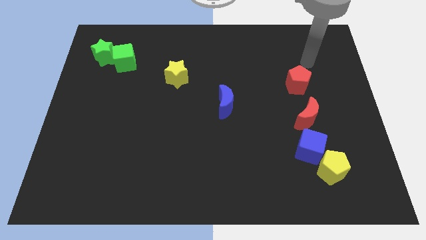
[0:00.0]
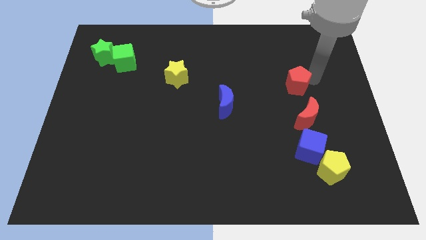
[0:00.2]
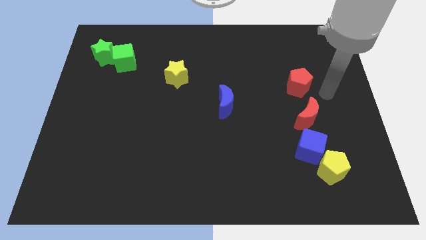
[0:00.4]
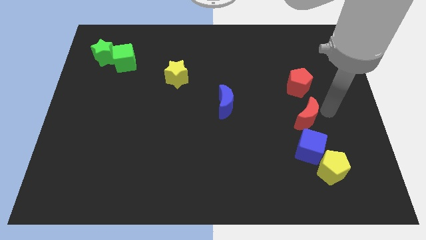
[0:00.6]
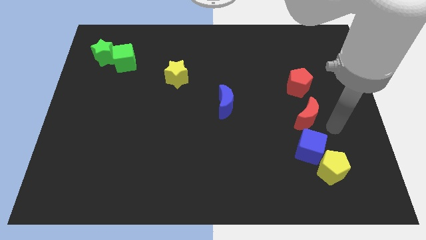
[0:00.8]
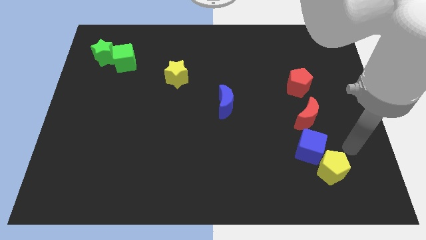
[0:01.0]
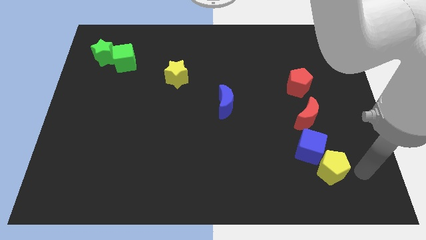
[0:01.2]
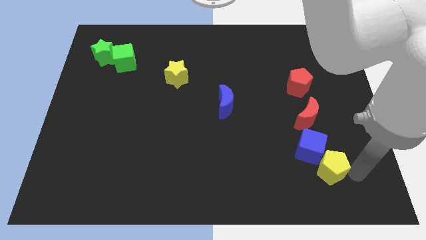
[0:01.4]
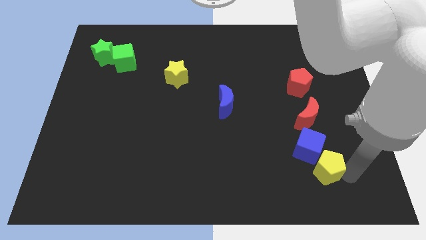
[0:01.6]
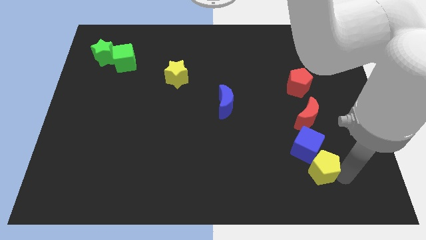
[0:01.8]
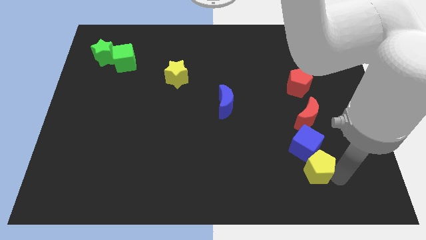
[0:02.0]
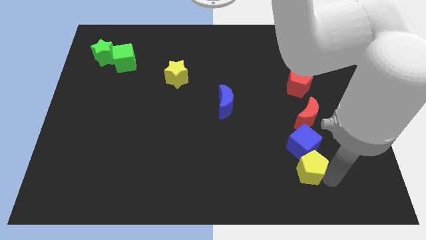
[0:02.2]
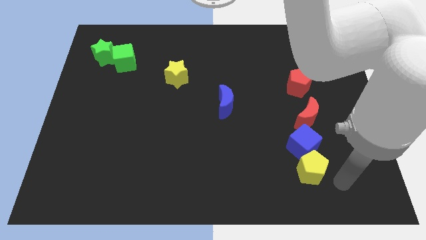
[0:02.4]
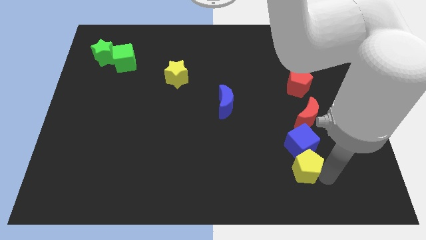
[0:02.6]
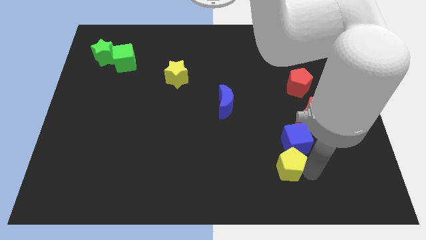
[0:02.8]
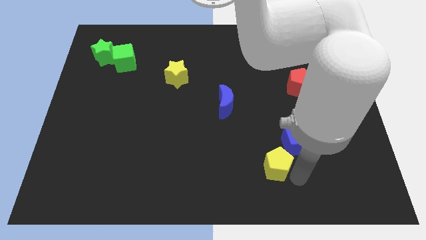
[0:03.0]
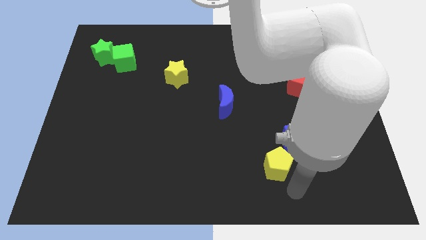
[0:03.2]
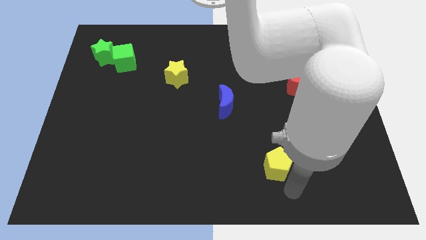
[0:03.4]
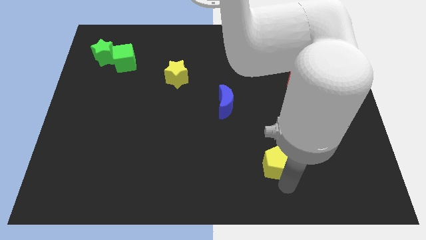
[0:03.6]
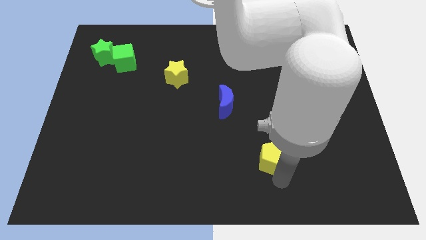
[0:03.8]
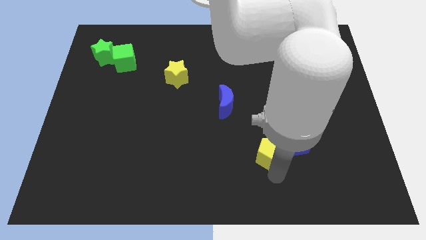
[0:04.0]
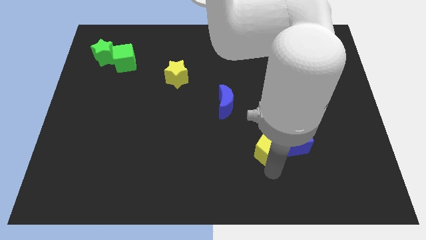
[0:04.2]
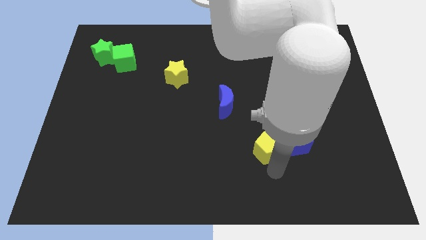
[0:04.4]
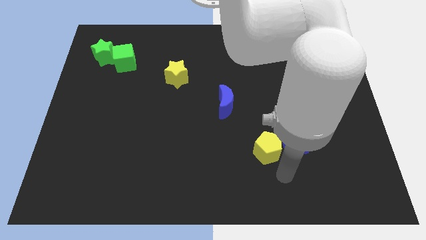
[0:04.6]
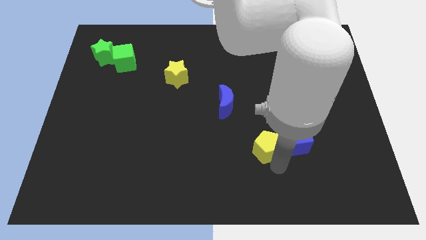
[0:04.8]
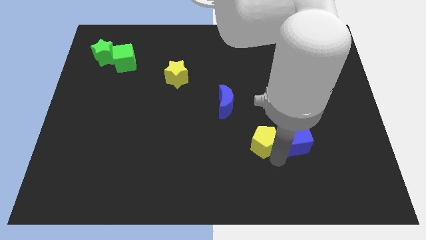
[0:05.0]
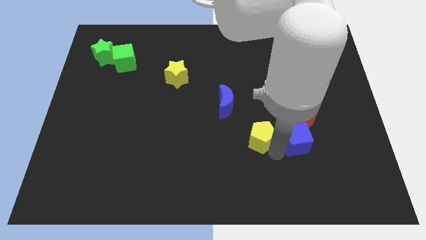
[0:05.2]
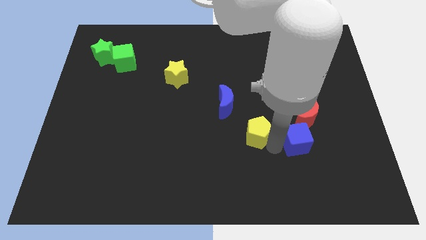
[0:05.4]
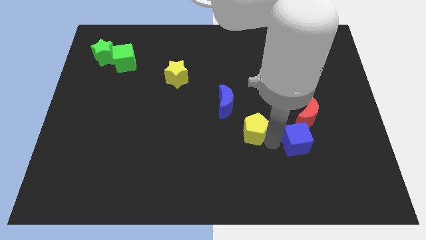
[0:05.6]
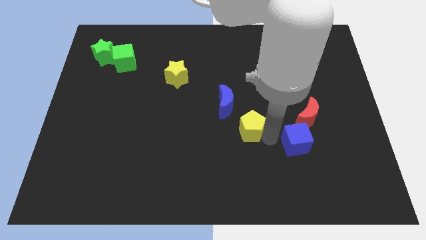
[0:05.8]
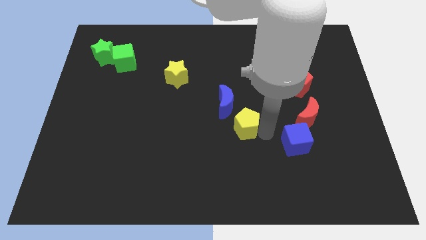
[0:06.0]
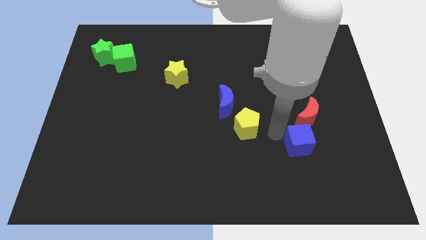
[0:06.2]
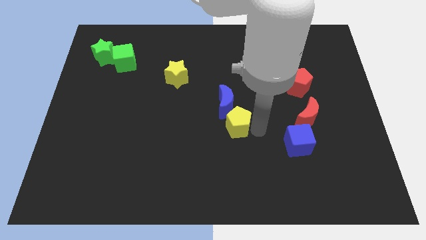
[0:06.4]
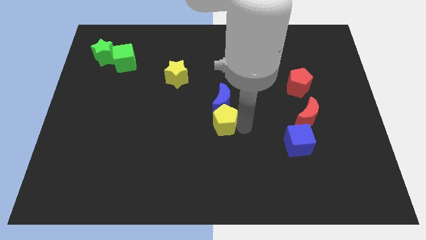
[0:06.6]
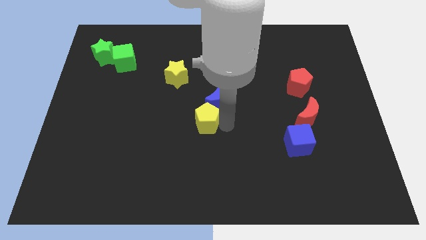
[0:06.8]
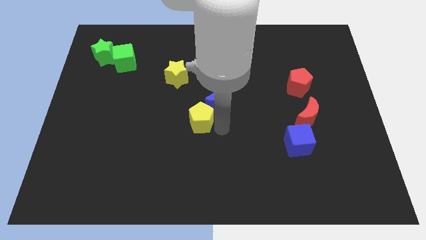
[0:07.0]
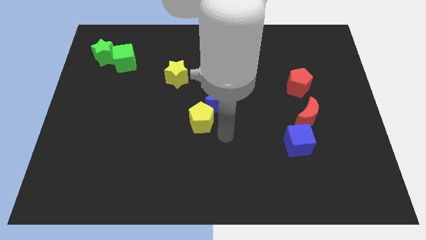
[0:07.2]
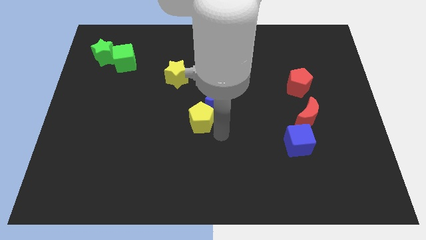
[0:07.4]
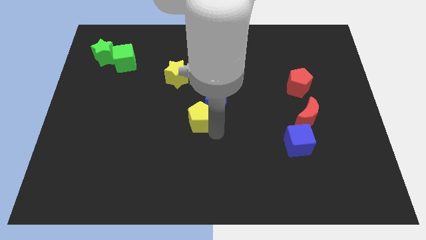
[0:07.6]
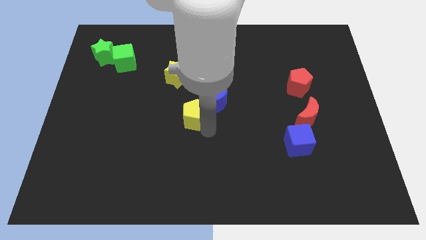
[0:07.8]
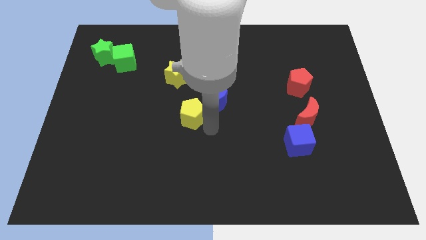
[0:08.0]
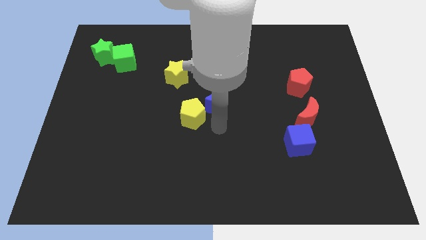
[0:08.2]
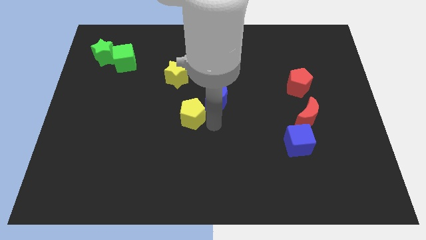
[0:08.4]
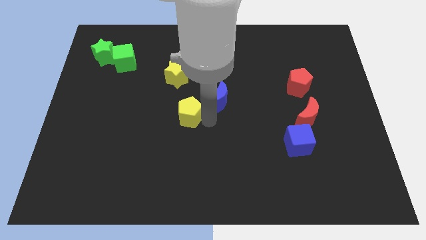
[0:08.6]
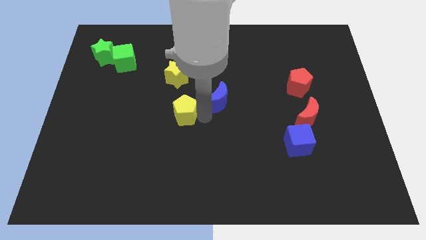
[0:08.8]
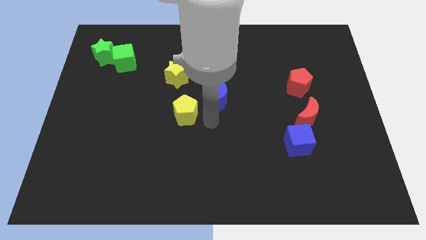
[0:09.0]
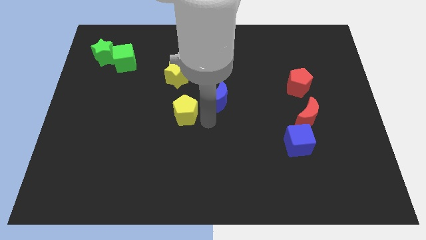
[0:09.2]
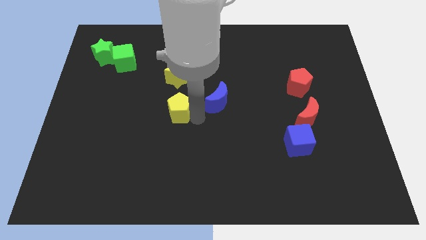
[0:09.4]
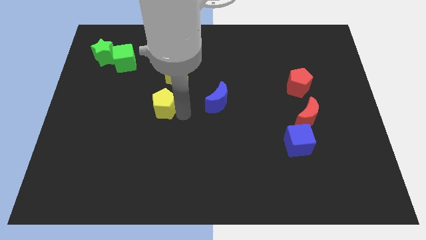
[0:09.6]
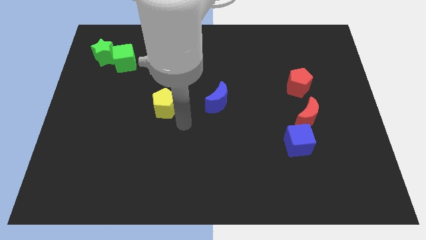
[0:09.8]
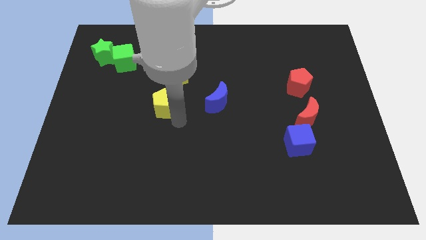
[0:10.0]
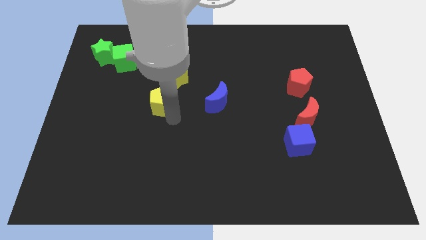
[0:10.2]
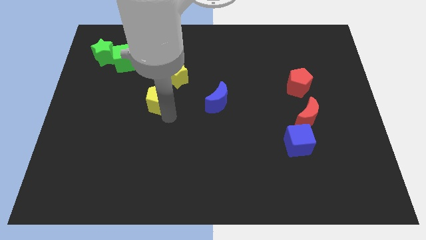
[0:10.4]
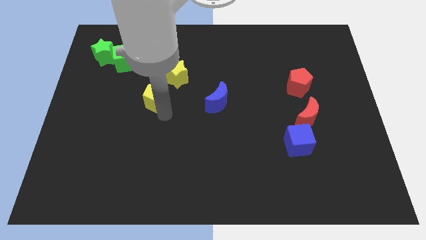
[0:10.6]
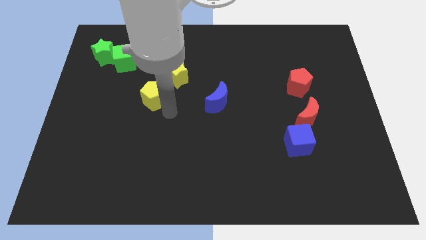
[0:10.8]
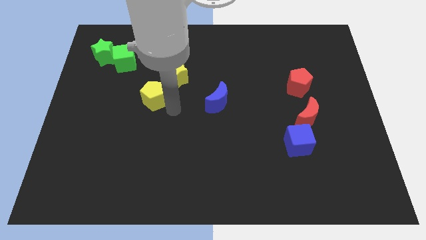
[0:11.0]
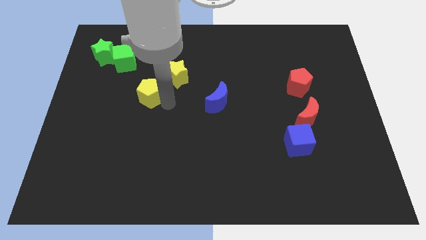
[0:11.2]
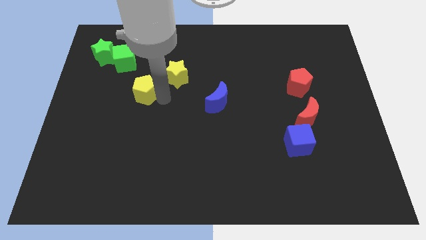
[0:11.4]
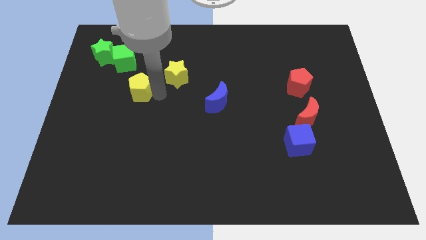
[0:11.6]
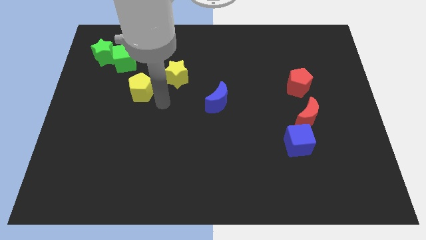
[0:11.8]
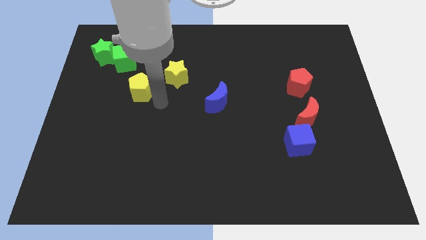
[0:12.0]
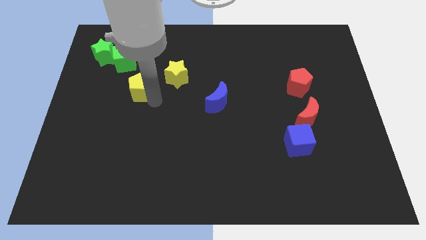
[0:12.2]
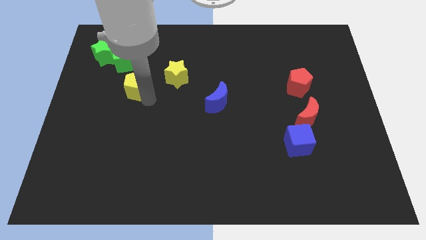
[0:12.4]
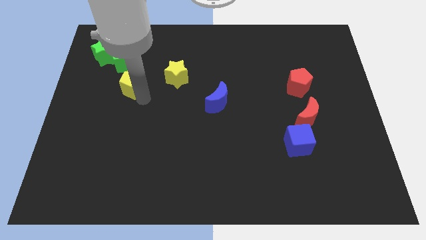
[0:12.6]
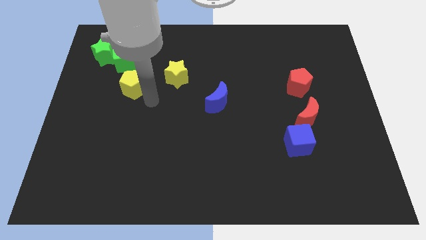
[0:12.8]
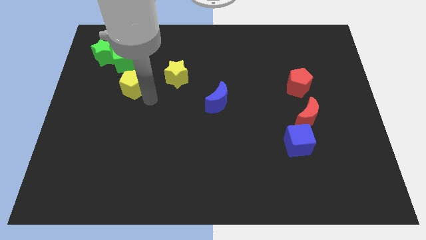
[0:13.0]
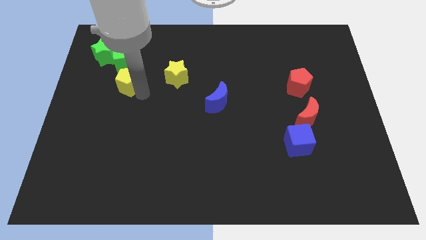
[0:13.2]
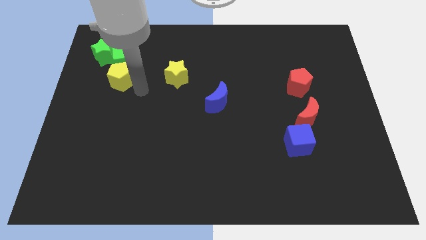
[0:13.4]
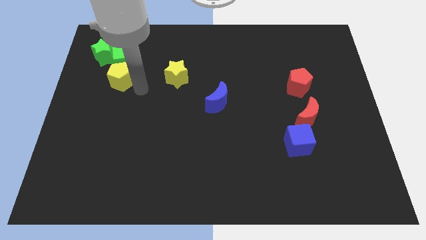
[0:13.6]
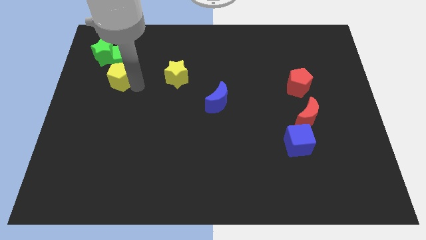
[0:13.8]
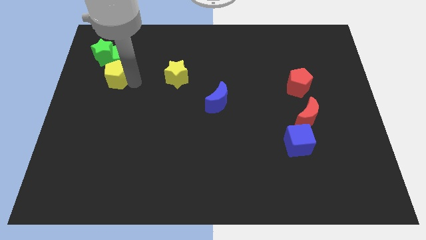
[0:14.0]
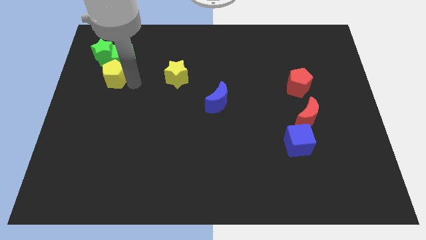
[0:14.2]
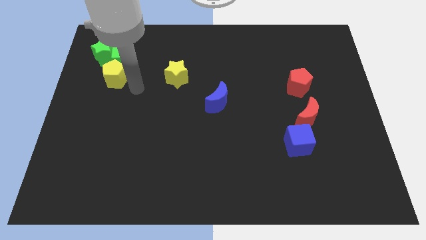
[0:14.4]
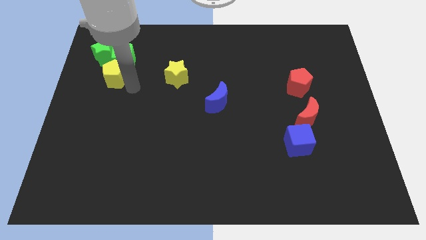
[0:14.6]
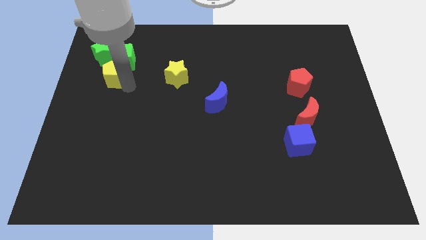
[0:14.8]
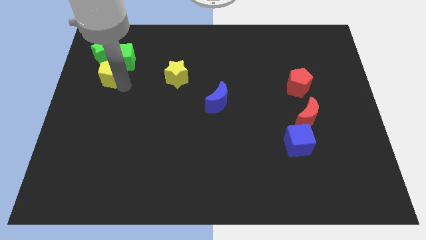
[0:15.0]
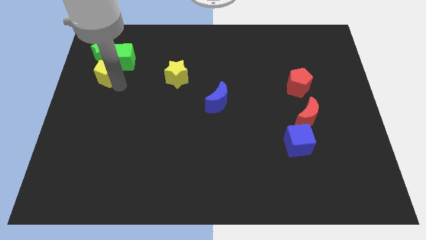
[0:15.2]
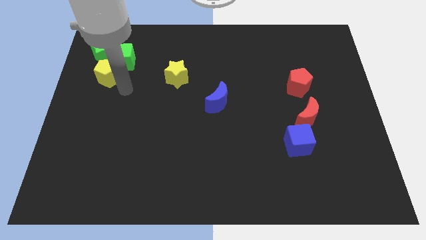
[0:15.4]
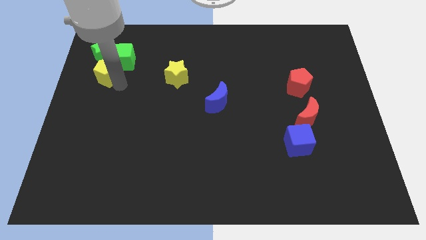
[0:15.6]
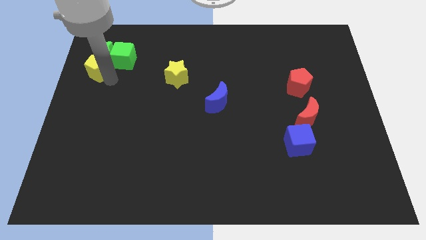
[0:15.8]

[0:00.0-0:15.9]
push the yellow pentagon to the green star
